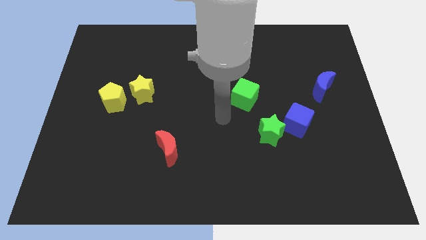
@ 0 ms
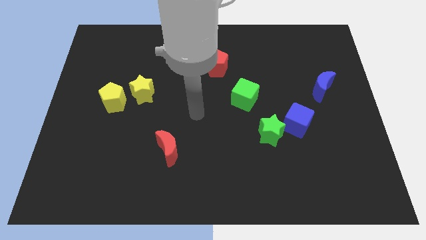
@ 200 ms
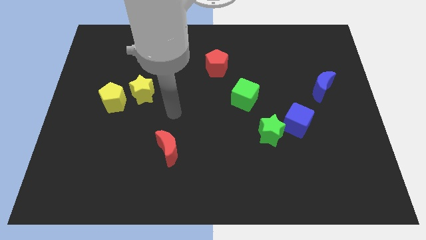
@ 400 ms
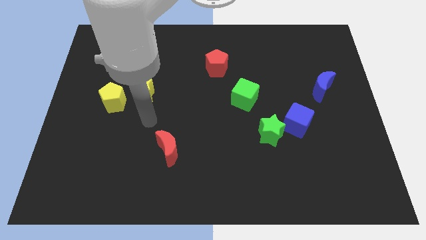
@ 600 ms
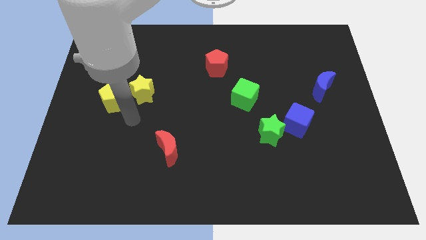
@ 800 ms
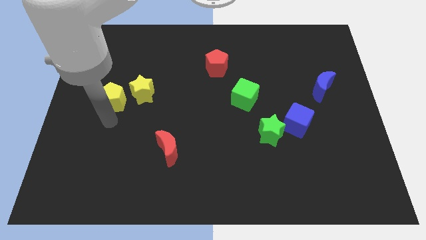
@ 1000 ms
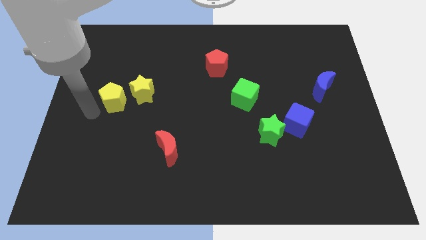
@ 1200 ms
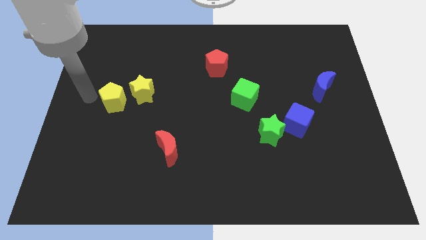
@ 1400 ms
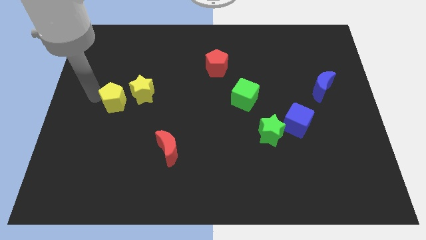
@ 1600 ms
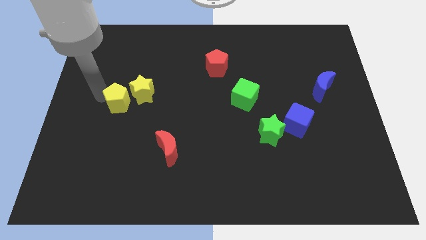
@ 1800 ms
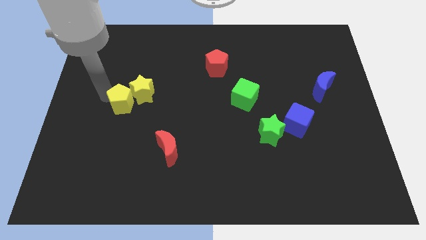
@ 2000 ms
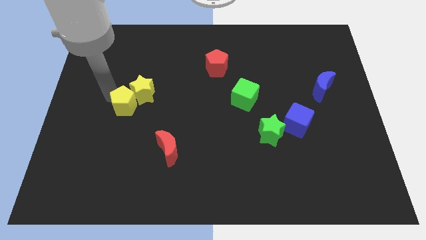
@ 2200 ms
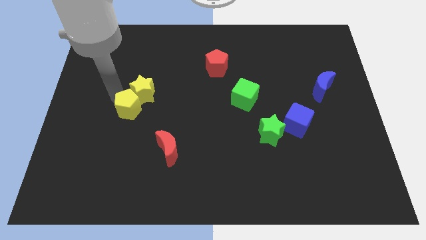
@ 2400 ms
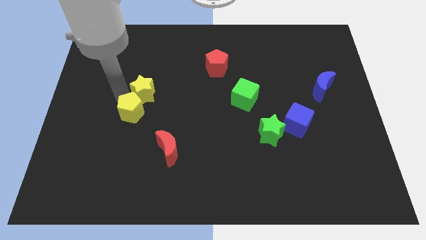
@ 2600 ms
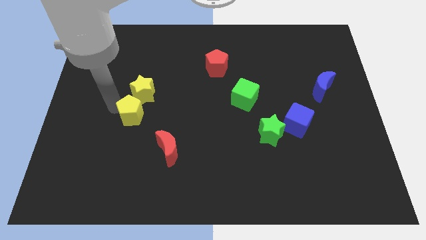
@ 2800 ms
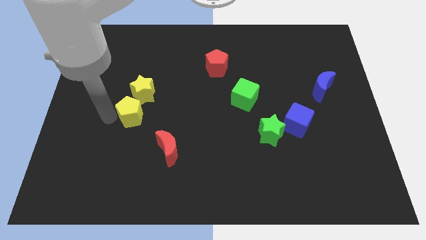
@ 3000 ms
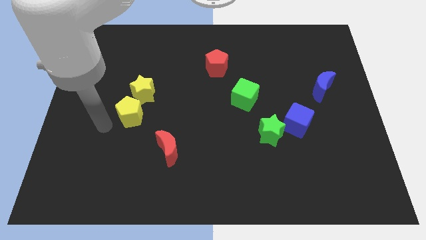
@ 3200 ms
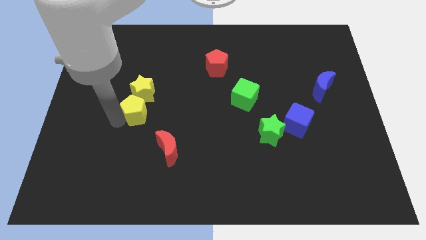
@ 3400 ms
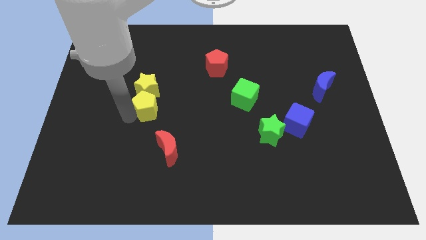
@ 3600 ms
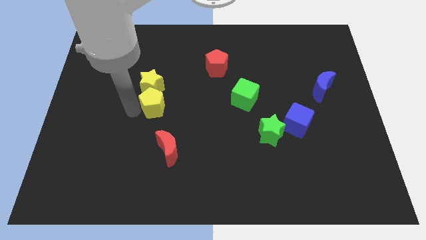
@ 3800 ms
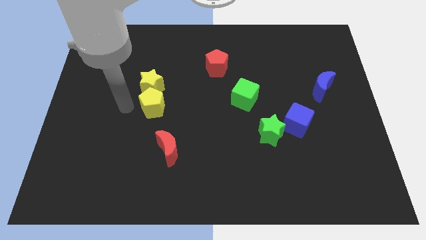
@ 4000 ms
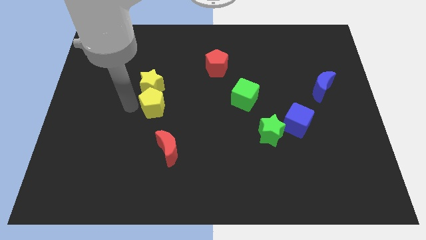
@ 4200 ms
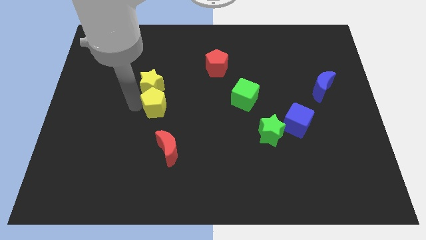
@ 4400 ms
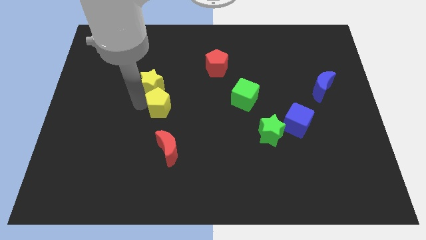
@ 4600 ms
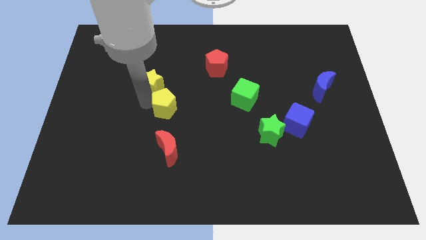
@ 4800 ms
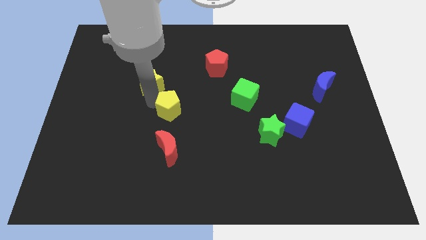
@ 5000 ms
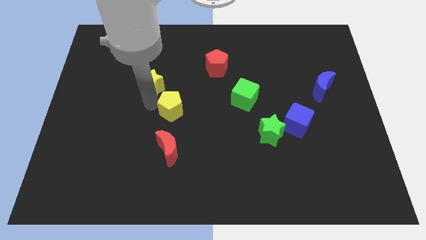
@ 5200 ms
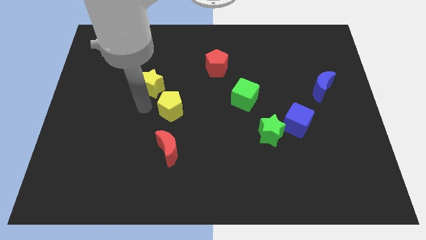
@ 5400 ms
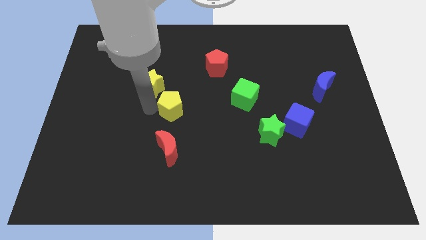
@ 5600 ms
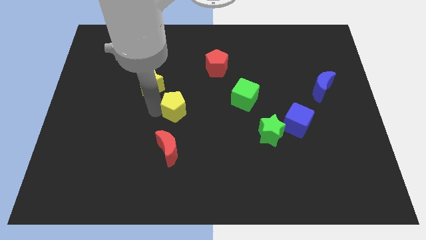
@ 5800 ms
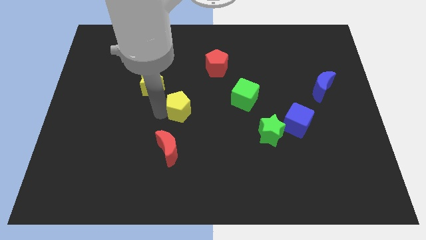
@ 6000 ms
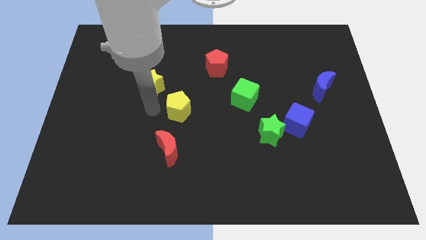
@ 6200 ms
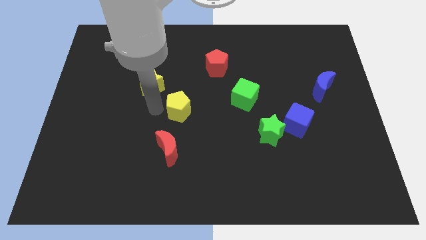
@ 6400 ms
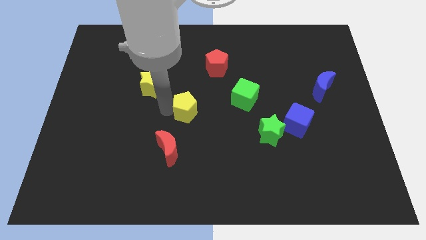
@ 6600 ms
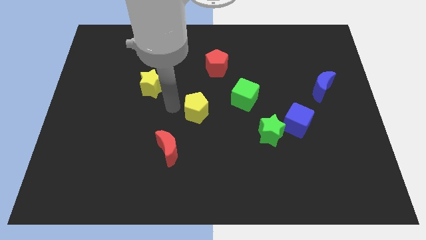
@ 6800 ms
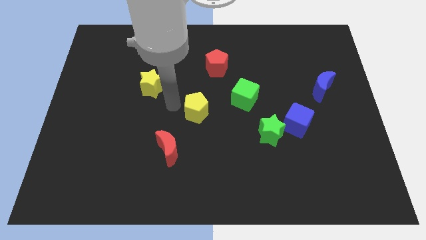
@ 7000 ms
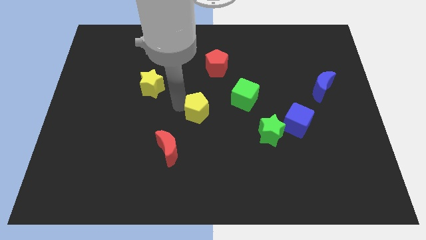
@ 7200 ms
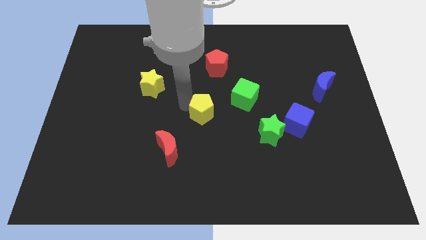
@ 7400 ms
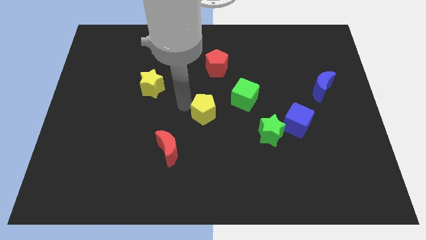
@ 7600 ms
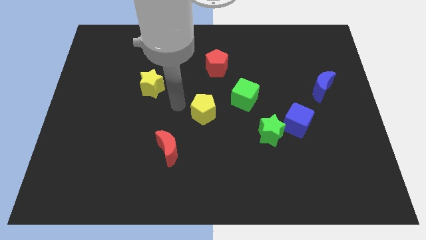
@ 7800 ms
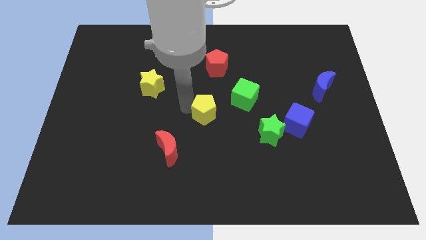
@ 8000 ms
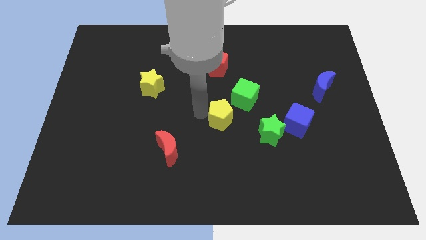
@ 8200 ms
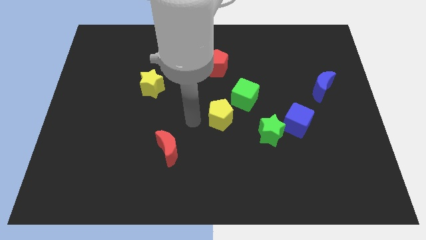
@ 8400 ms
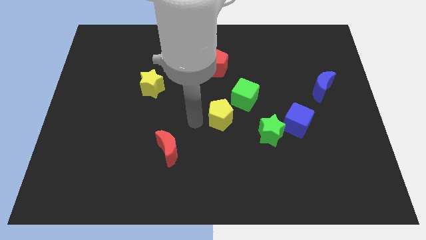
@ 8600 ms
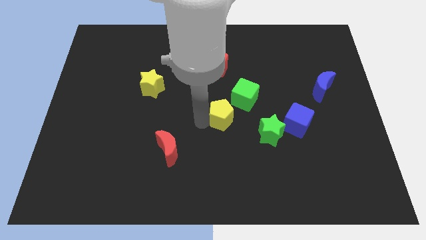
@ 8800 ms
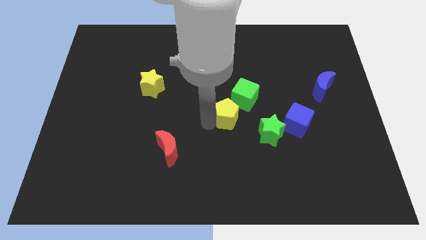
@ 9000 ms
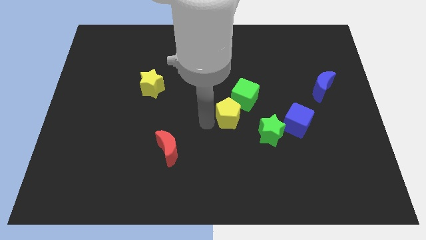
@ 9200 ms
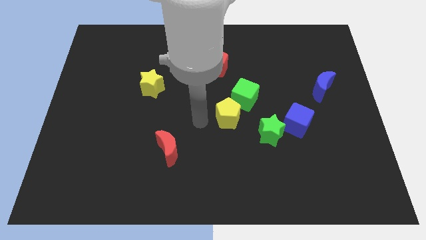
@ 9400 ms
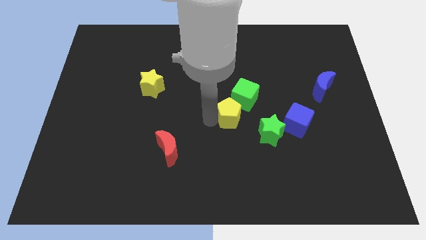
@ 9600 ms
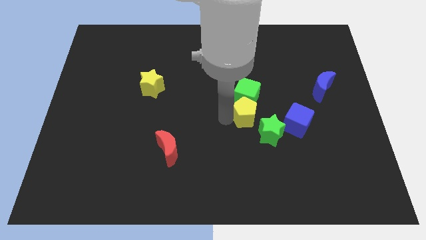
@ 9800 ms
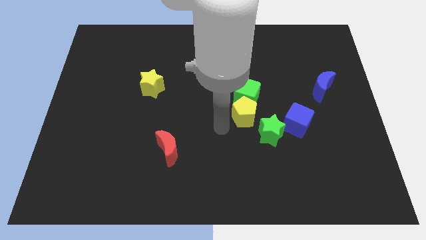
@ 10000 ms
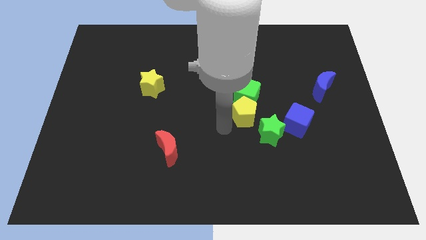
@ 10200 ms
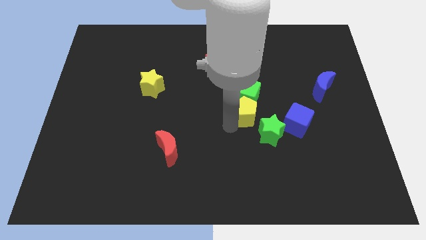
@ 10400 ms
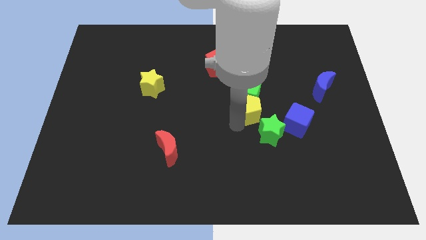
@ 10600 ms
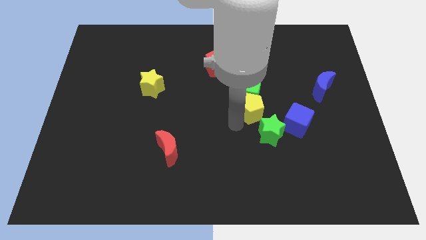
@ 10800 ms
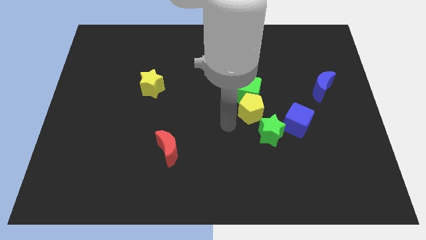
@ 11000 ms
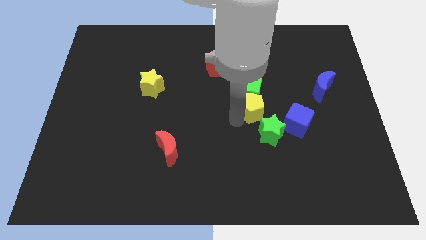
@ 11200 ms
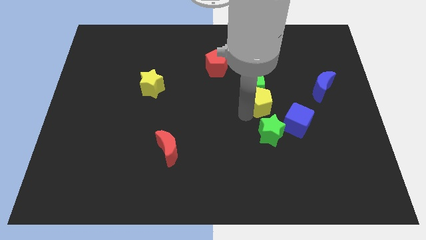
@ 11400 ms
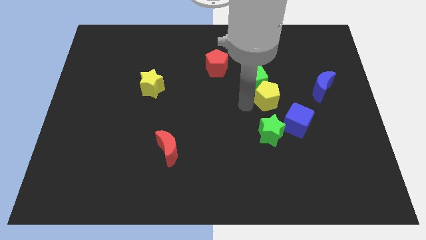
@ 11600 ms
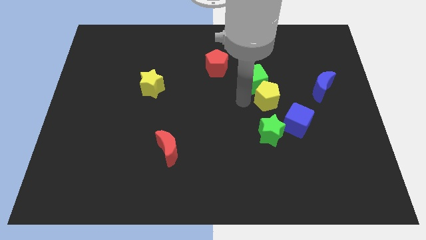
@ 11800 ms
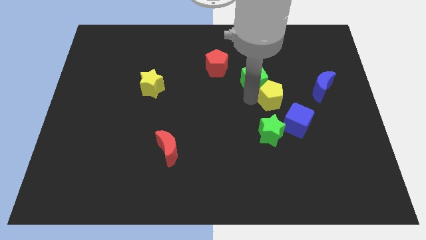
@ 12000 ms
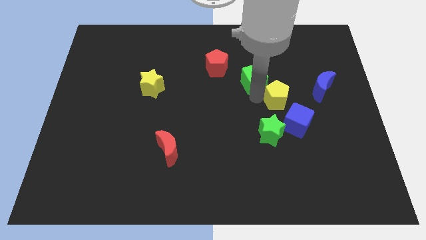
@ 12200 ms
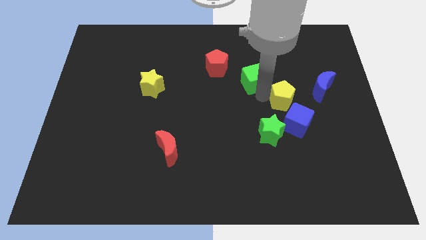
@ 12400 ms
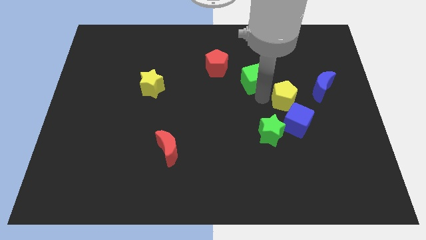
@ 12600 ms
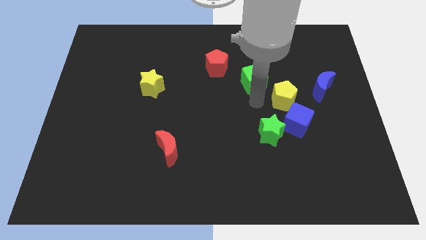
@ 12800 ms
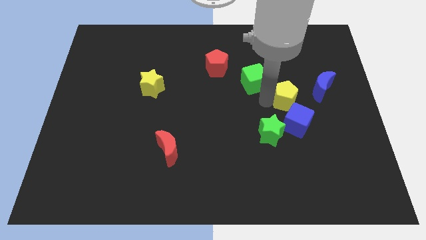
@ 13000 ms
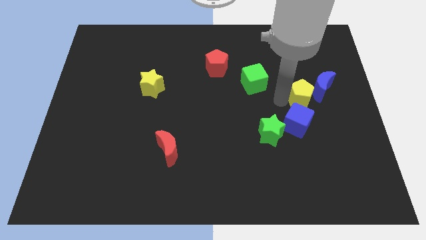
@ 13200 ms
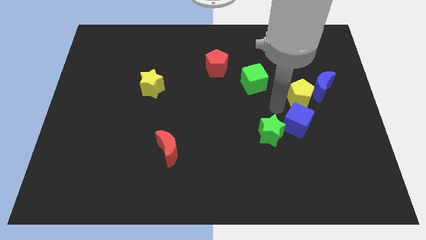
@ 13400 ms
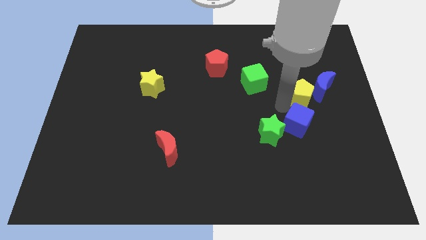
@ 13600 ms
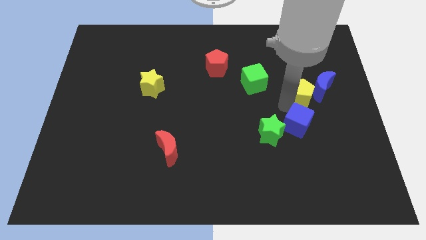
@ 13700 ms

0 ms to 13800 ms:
move the yellow pentagon to the blue moon

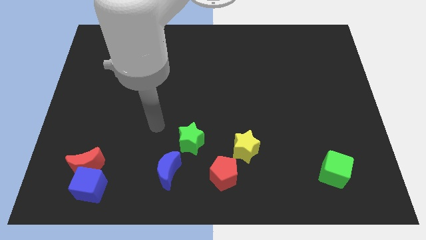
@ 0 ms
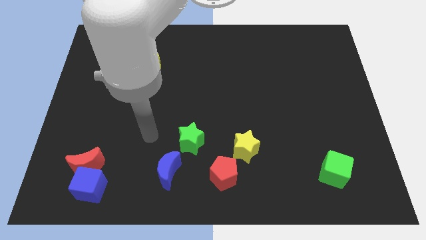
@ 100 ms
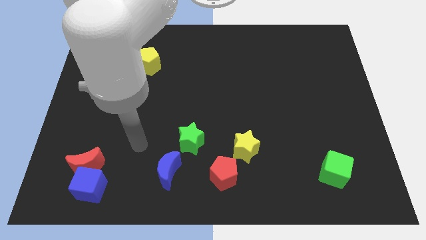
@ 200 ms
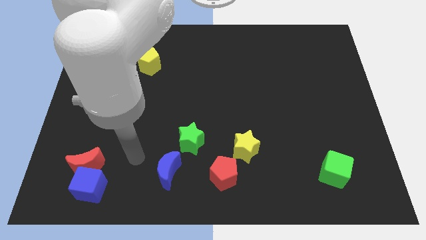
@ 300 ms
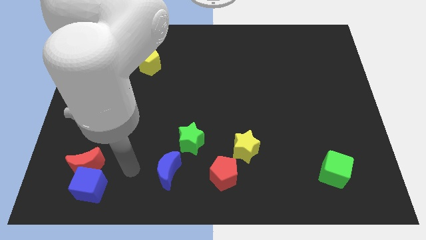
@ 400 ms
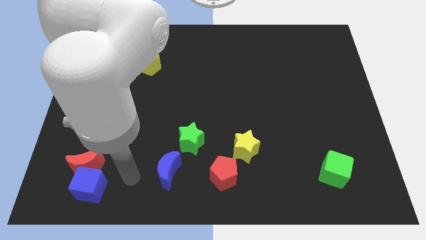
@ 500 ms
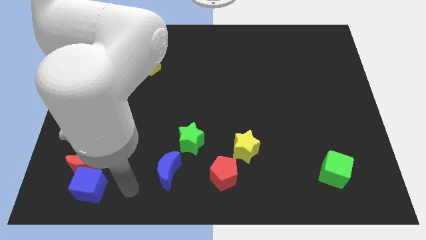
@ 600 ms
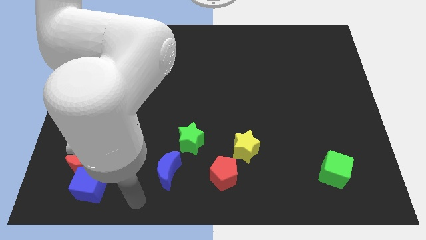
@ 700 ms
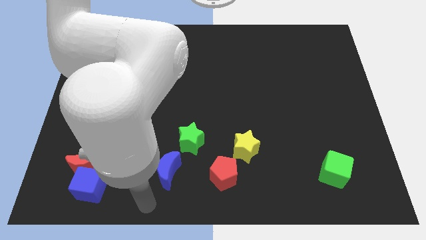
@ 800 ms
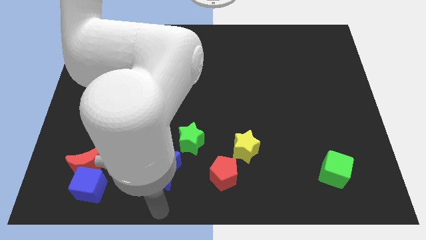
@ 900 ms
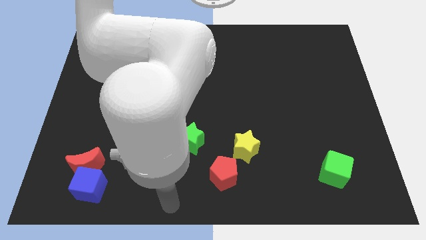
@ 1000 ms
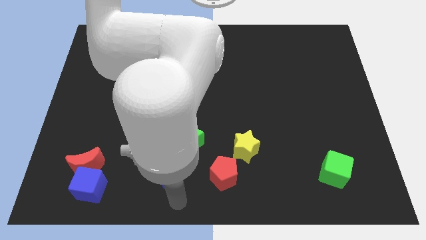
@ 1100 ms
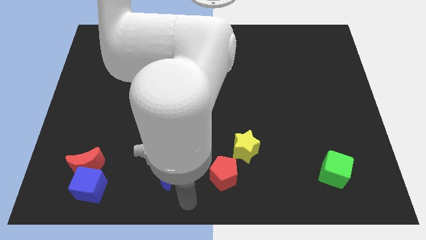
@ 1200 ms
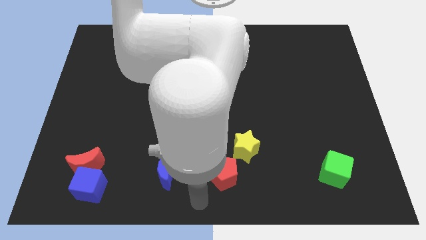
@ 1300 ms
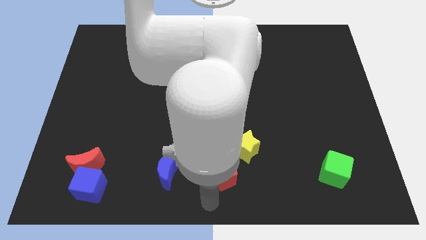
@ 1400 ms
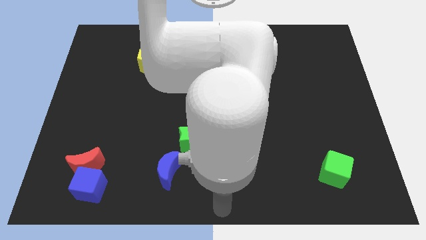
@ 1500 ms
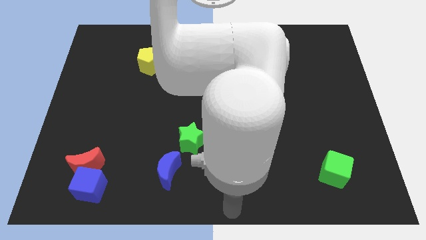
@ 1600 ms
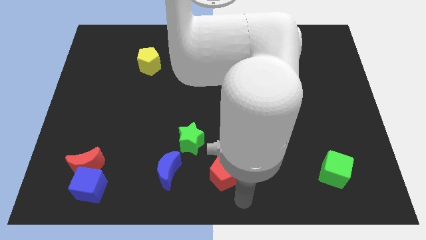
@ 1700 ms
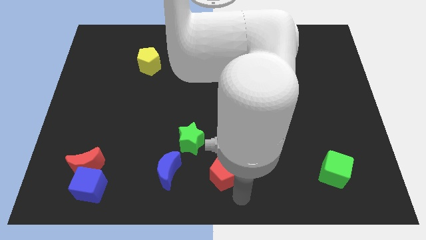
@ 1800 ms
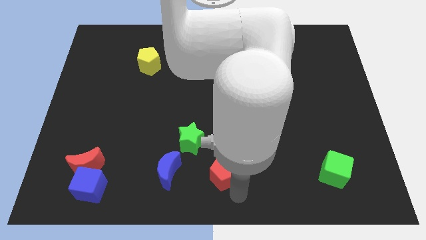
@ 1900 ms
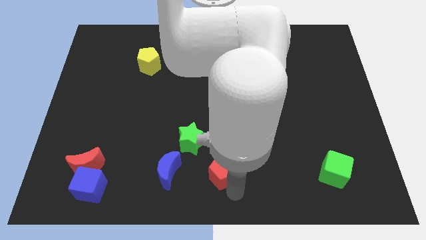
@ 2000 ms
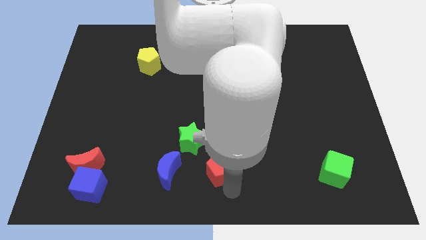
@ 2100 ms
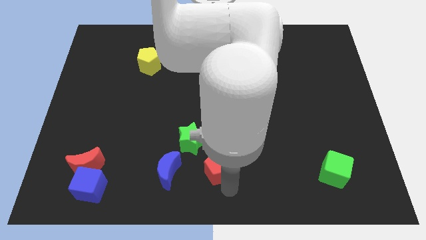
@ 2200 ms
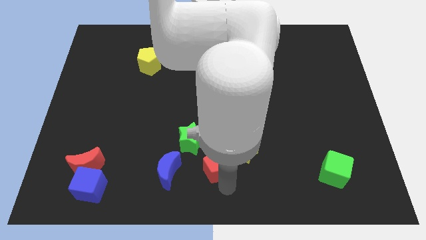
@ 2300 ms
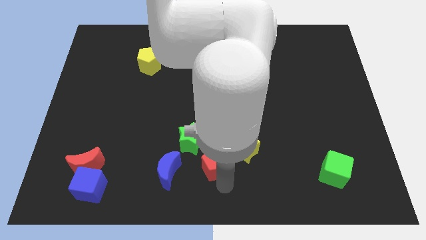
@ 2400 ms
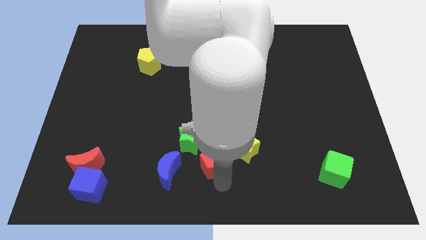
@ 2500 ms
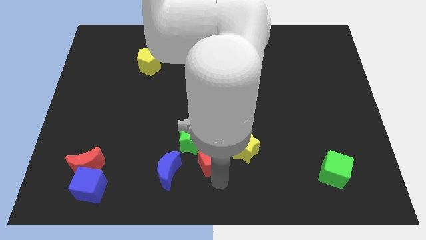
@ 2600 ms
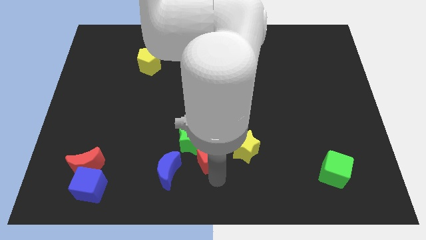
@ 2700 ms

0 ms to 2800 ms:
move the red pentagon close to the green star
